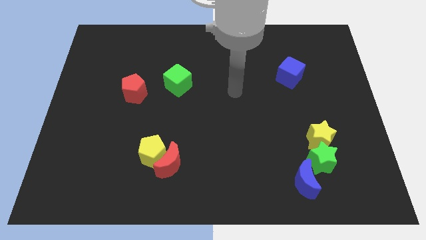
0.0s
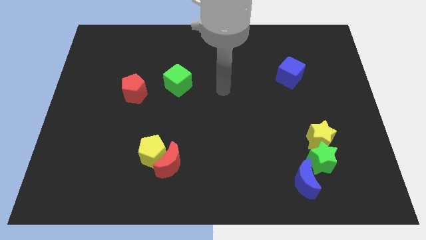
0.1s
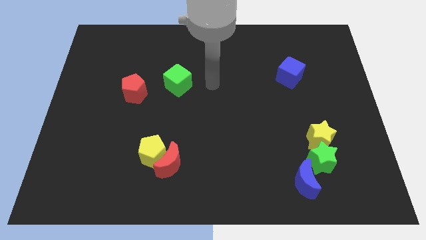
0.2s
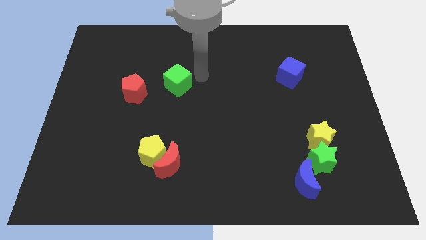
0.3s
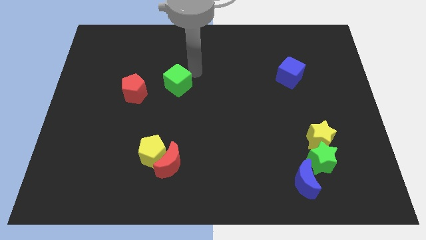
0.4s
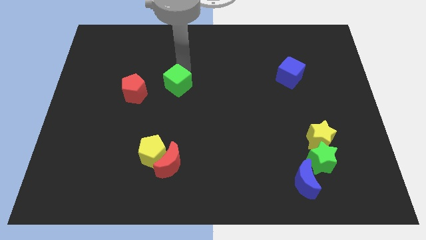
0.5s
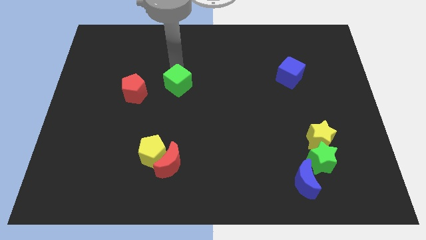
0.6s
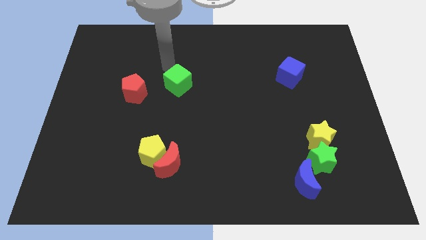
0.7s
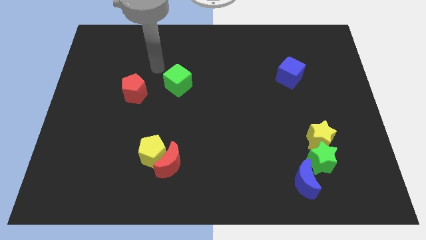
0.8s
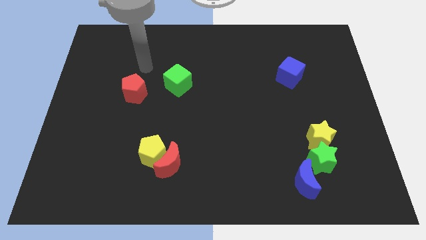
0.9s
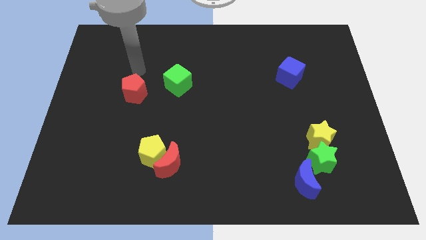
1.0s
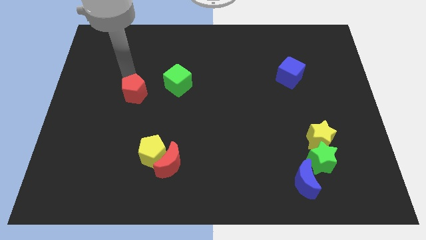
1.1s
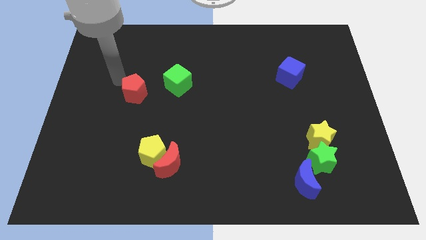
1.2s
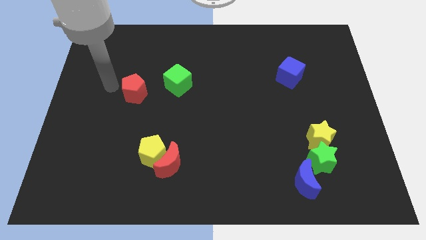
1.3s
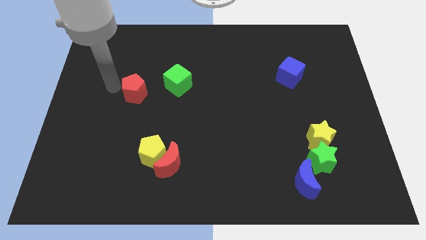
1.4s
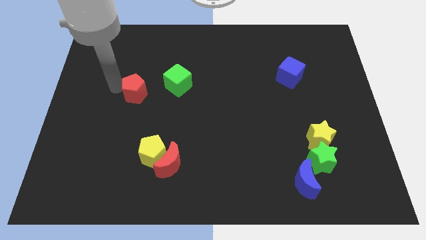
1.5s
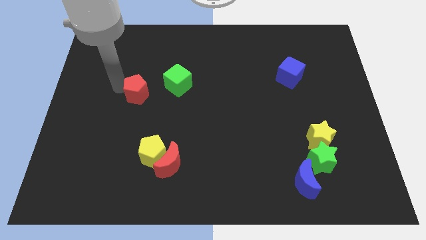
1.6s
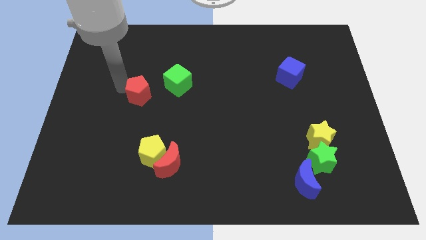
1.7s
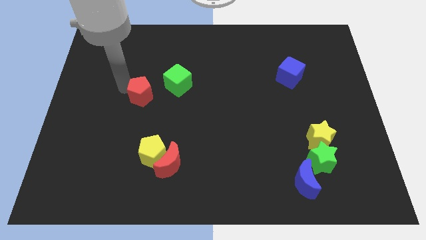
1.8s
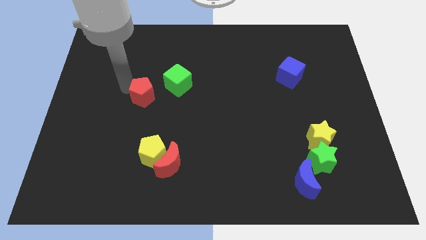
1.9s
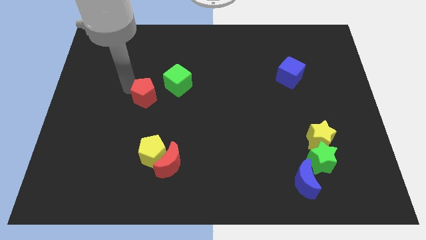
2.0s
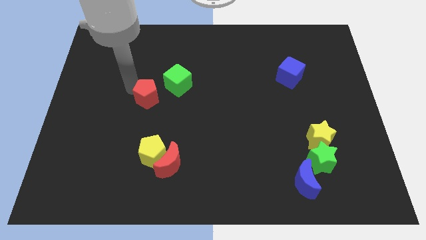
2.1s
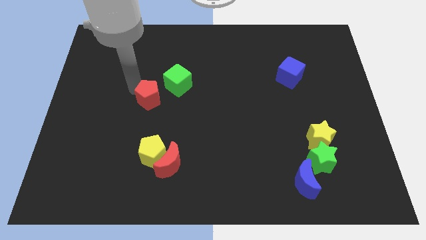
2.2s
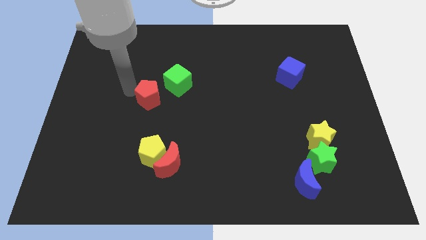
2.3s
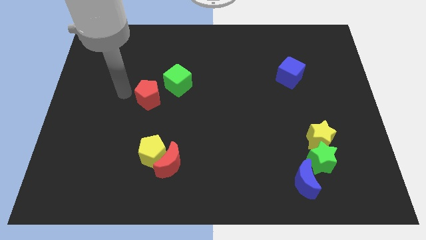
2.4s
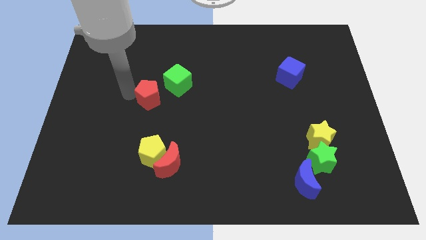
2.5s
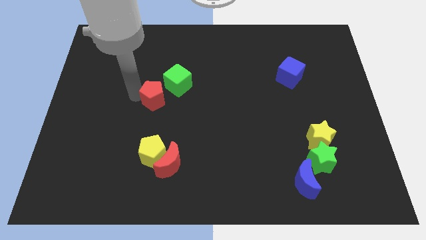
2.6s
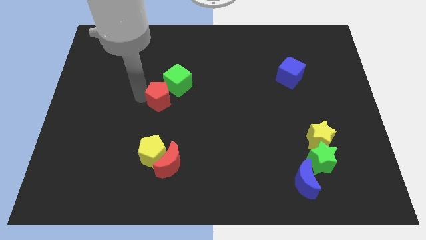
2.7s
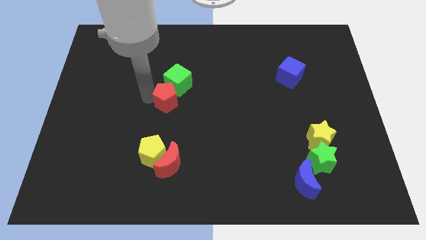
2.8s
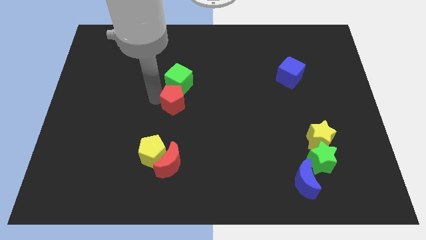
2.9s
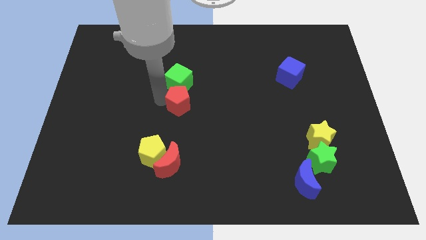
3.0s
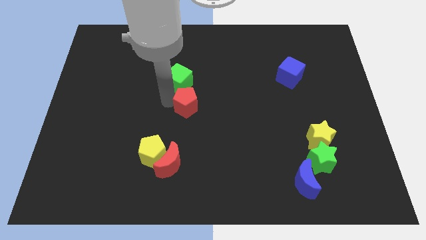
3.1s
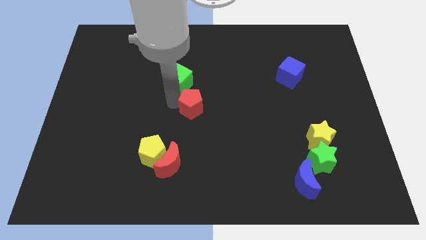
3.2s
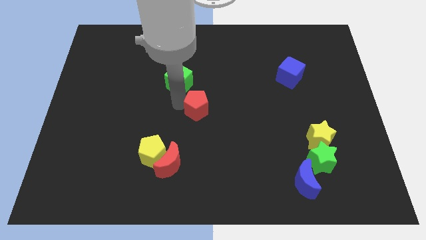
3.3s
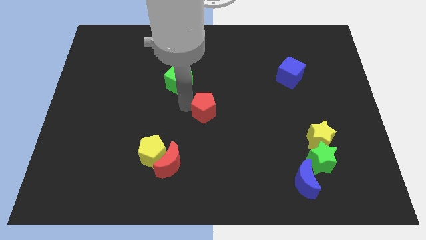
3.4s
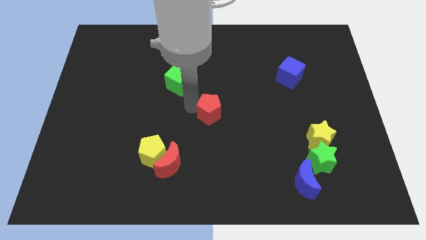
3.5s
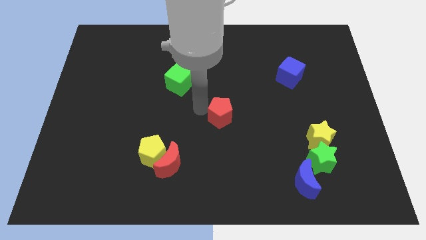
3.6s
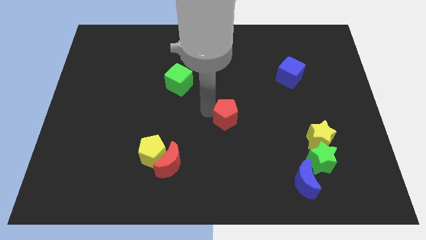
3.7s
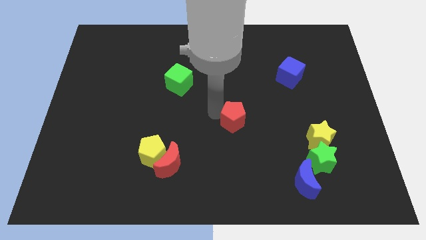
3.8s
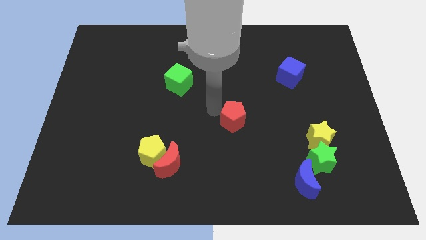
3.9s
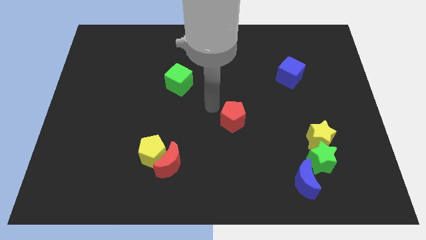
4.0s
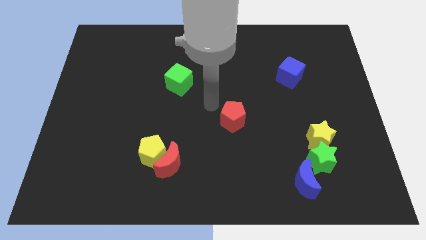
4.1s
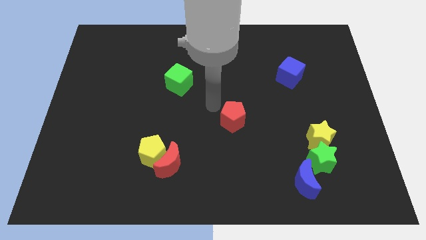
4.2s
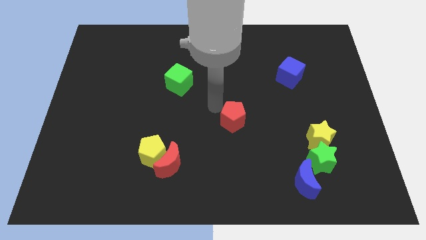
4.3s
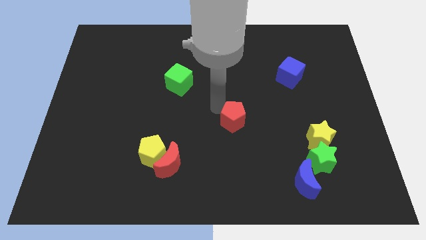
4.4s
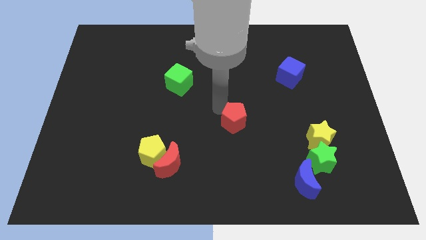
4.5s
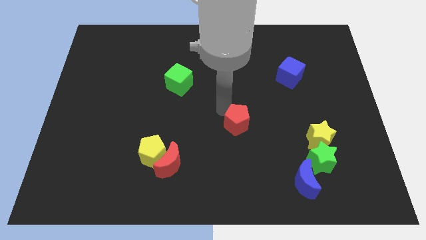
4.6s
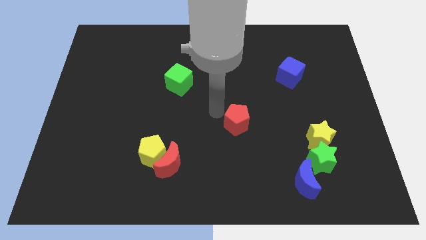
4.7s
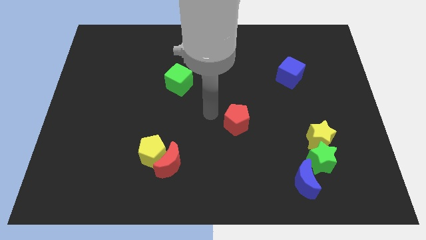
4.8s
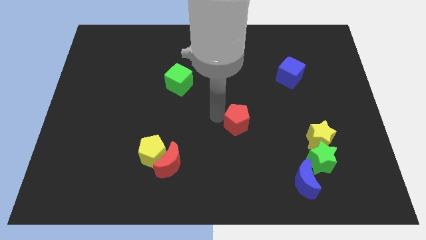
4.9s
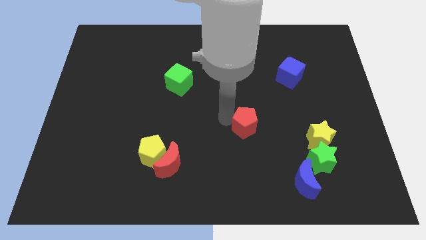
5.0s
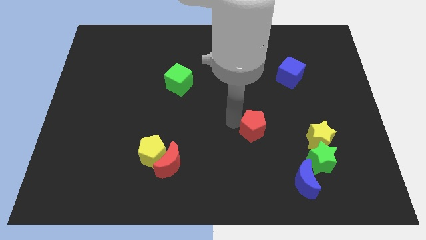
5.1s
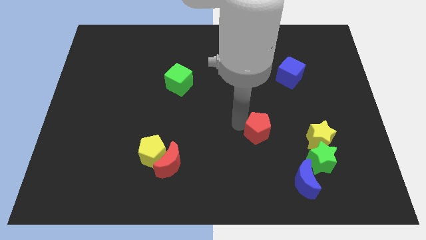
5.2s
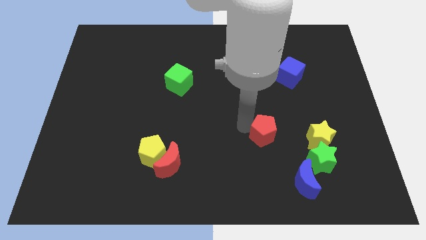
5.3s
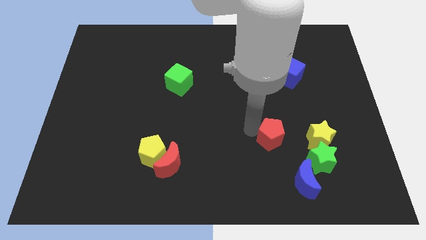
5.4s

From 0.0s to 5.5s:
put the red pentagon to the top left side of the green star

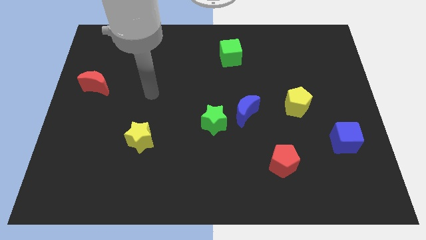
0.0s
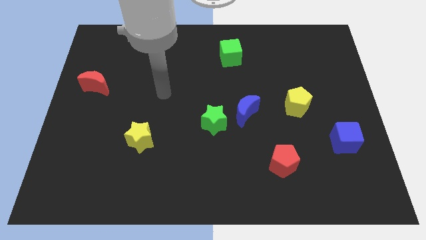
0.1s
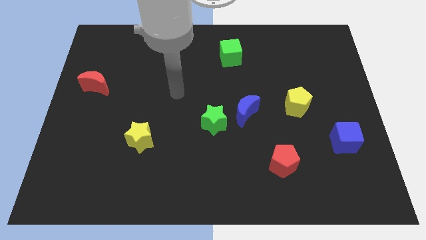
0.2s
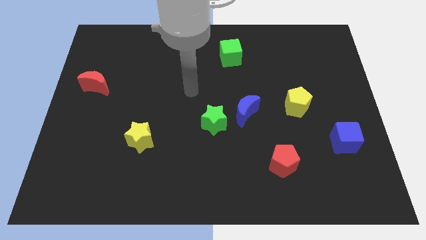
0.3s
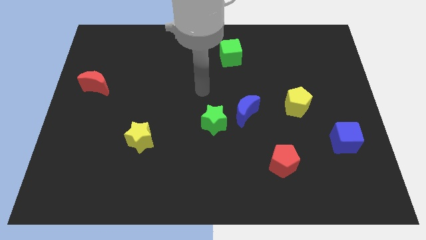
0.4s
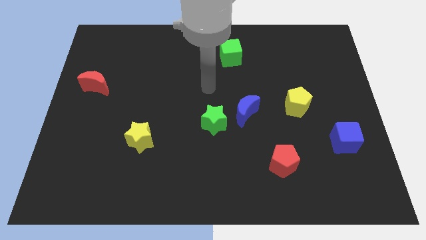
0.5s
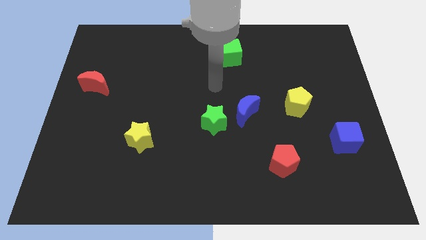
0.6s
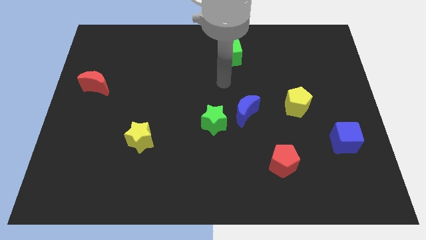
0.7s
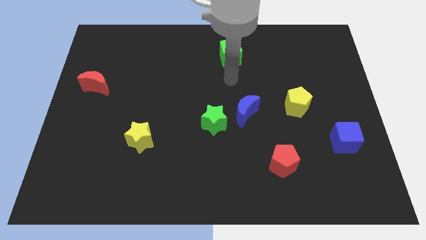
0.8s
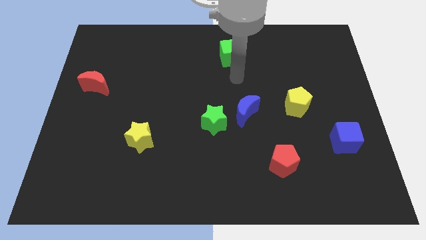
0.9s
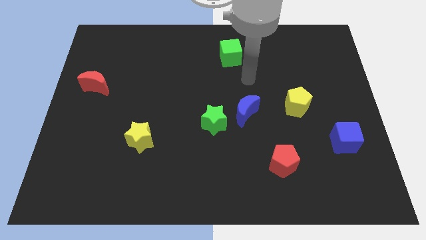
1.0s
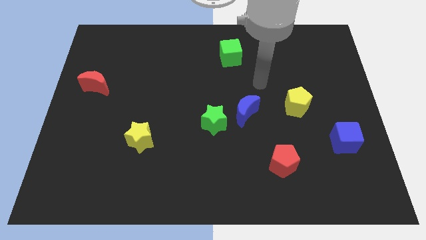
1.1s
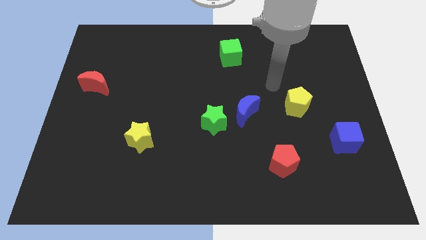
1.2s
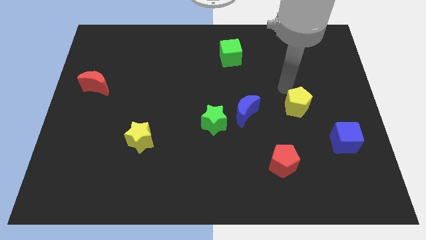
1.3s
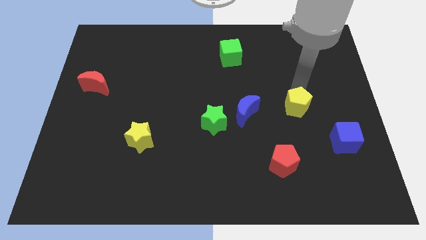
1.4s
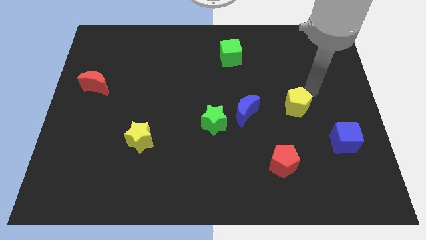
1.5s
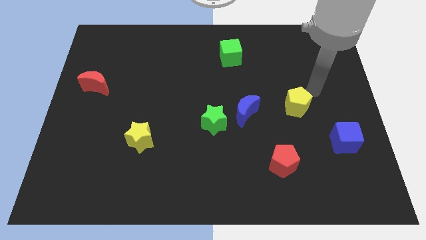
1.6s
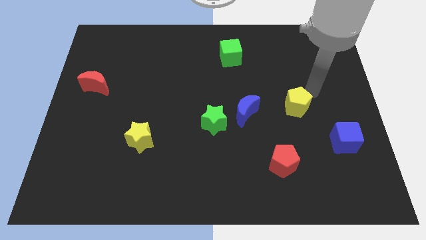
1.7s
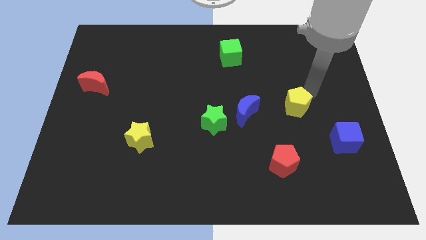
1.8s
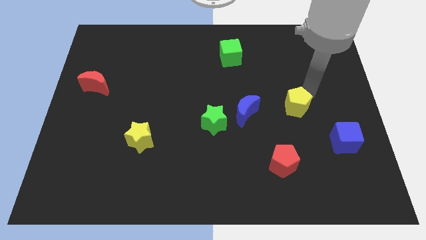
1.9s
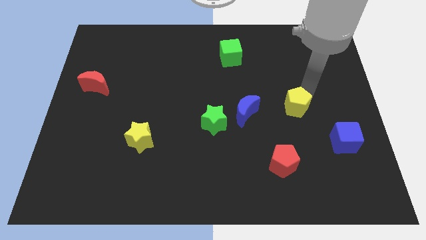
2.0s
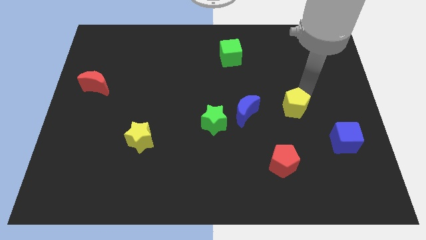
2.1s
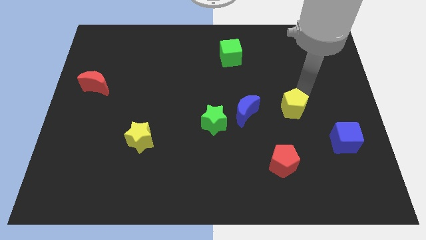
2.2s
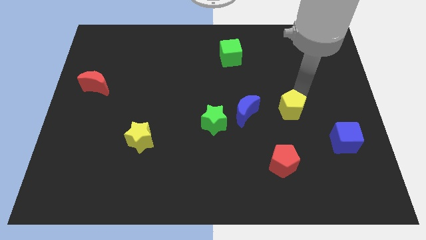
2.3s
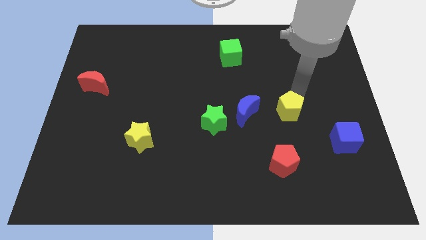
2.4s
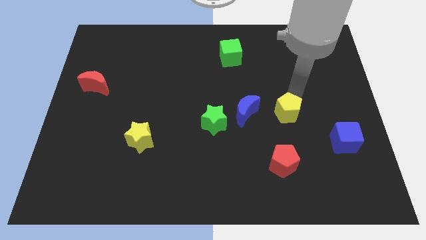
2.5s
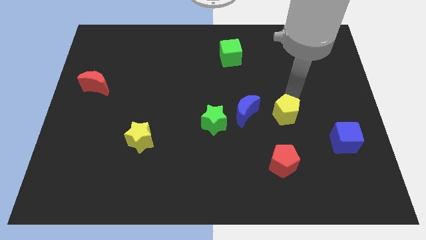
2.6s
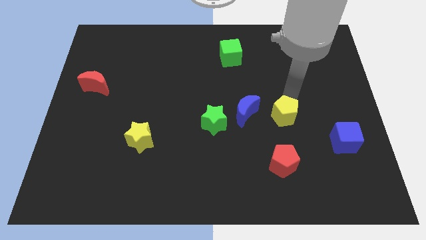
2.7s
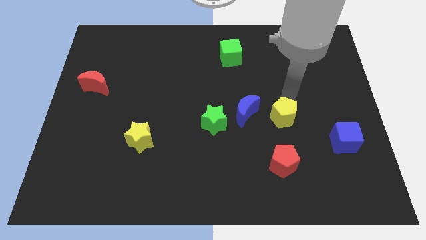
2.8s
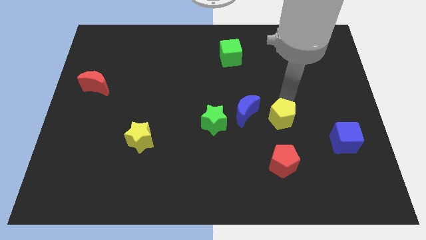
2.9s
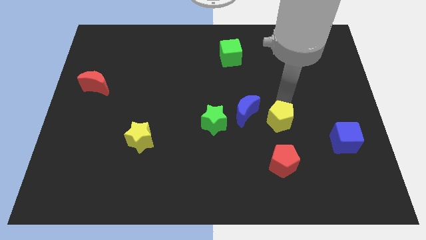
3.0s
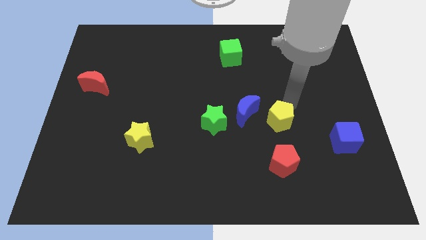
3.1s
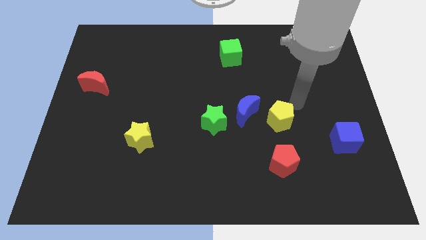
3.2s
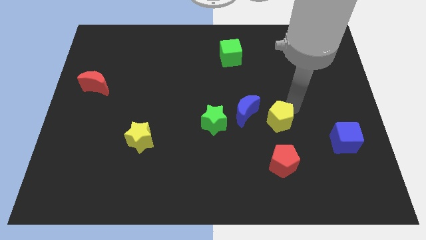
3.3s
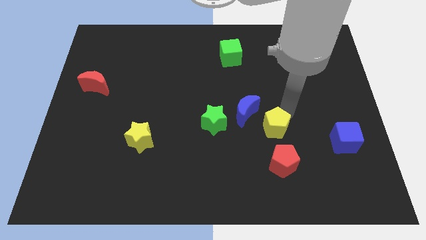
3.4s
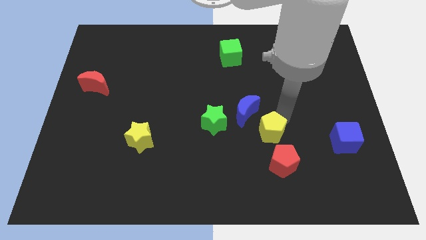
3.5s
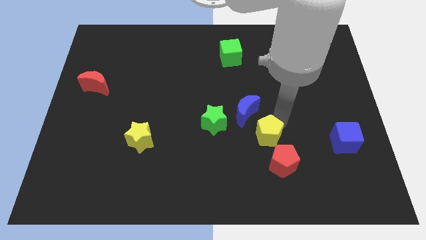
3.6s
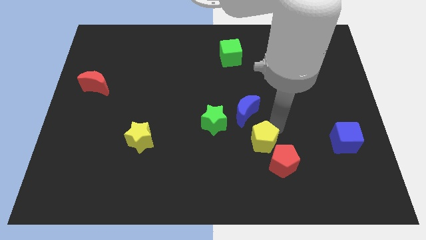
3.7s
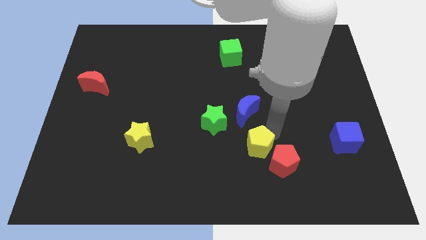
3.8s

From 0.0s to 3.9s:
move the yellow pentagon to the bottom right of the green star
